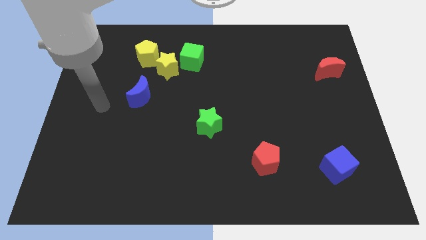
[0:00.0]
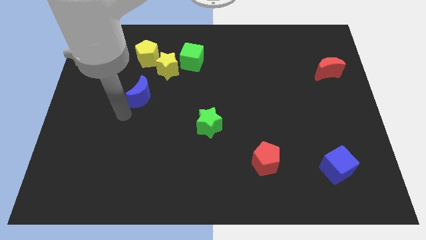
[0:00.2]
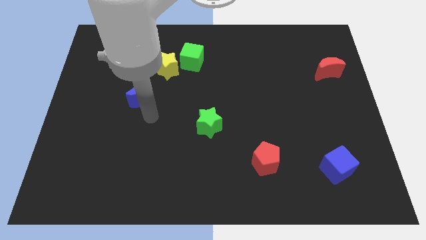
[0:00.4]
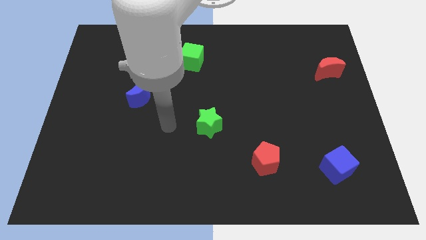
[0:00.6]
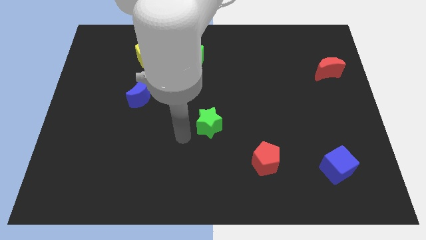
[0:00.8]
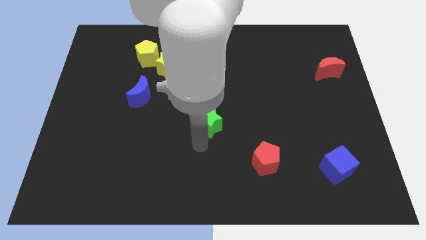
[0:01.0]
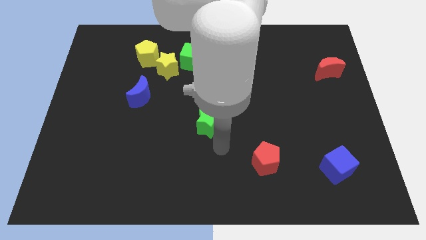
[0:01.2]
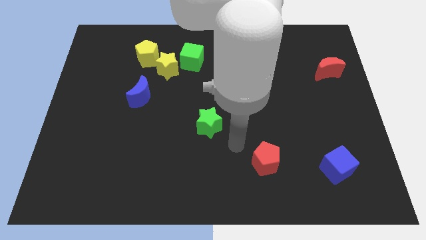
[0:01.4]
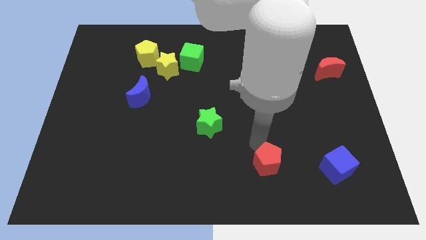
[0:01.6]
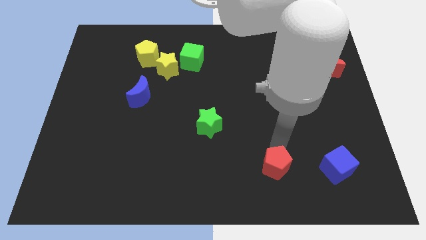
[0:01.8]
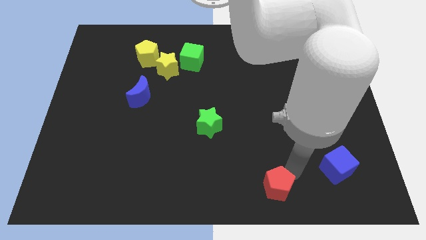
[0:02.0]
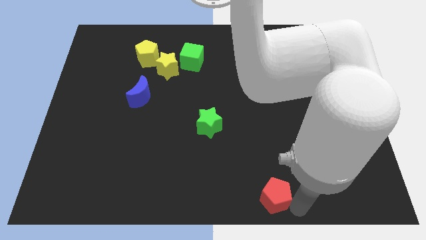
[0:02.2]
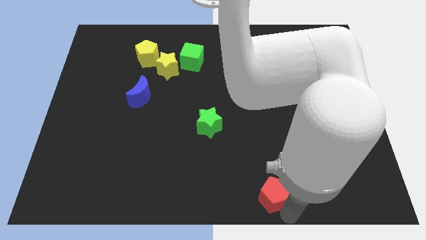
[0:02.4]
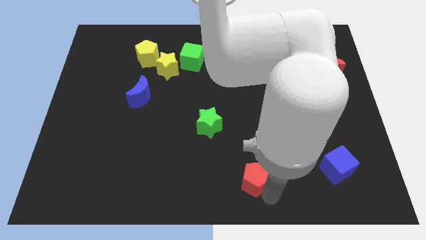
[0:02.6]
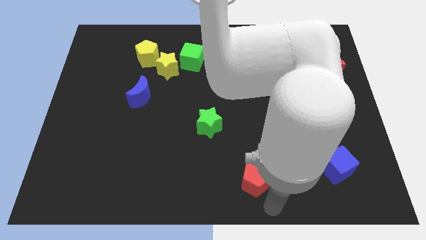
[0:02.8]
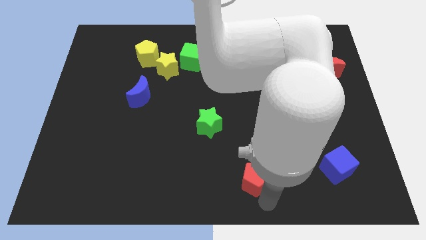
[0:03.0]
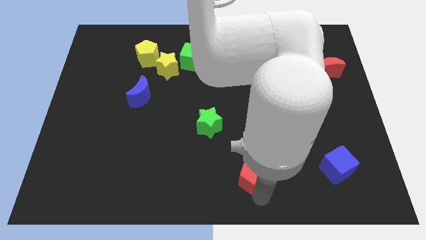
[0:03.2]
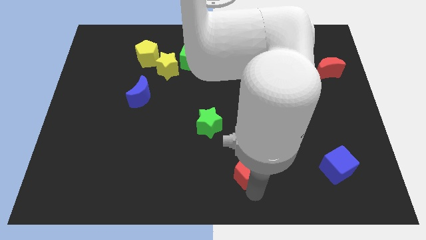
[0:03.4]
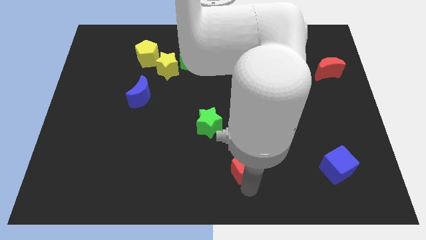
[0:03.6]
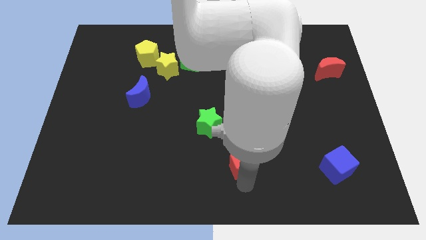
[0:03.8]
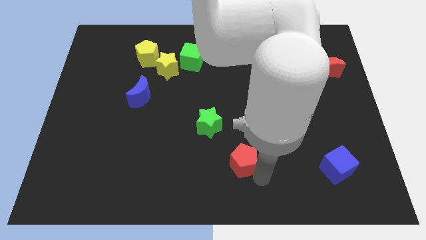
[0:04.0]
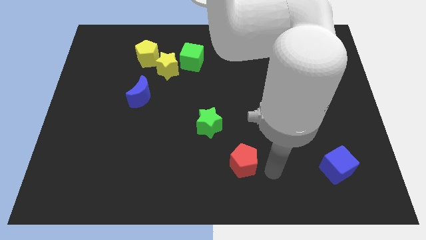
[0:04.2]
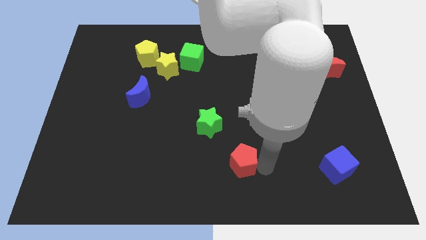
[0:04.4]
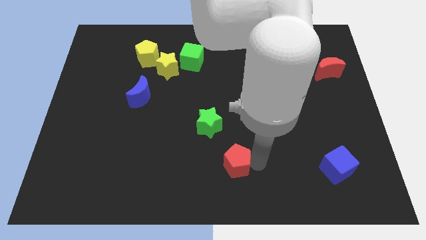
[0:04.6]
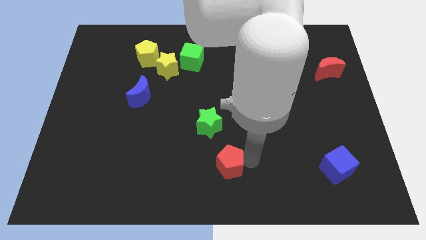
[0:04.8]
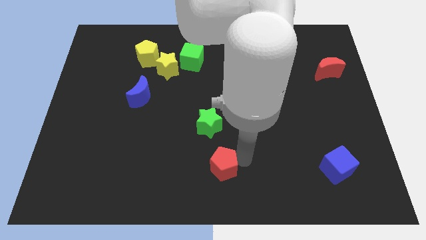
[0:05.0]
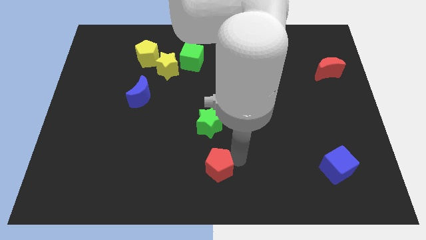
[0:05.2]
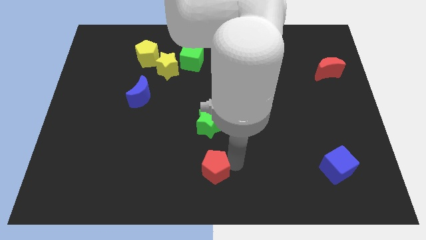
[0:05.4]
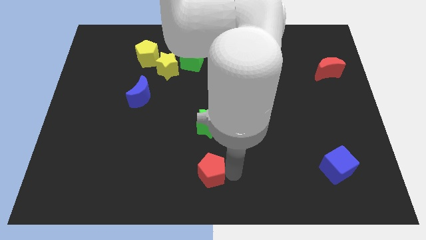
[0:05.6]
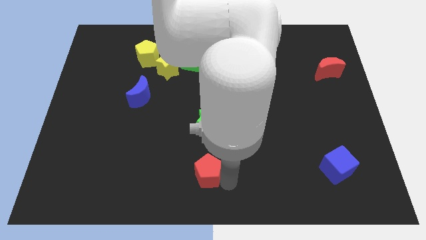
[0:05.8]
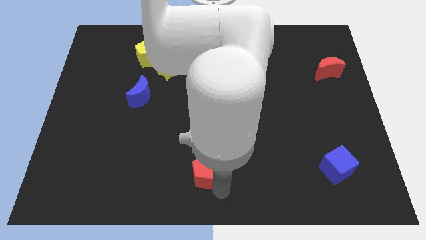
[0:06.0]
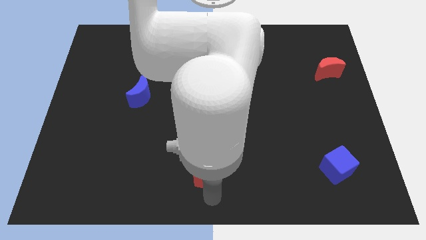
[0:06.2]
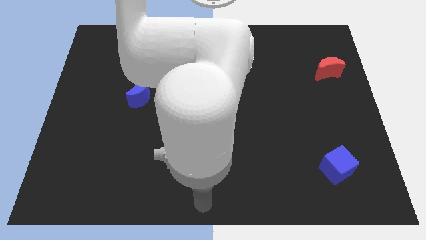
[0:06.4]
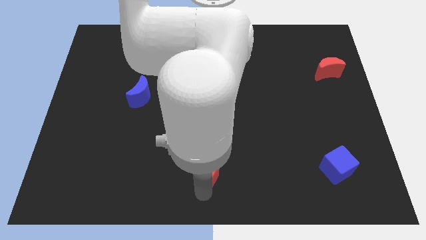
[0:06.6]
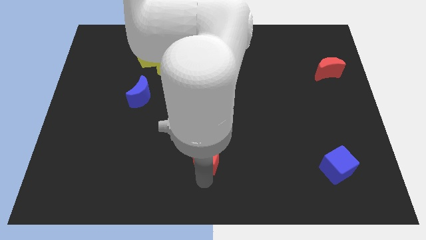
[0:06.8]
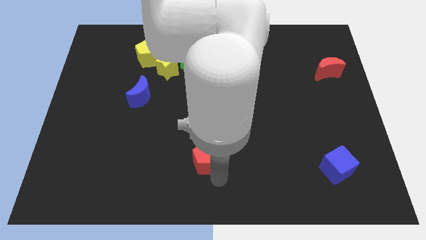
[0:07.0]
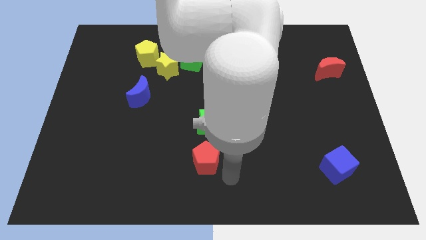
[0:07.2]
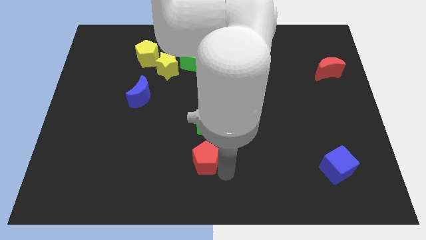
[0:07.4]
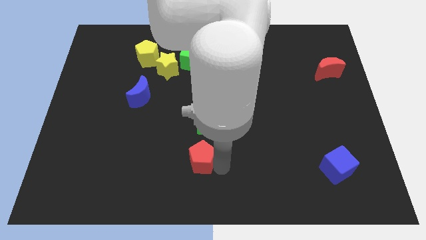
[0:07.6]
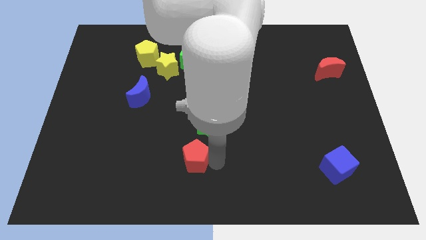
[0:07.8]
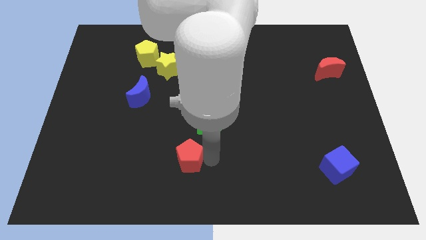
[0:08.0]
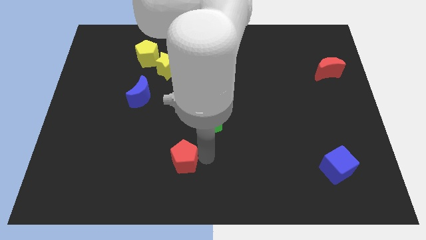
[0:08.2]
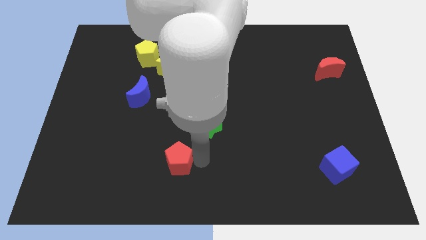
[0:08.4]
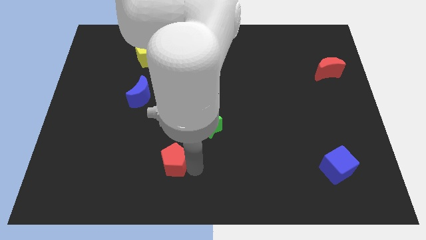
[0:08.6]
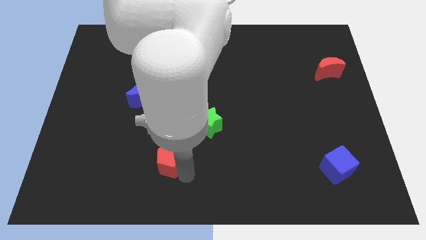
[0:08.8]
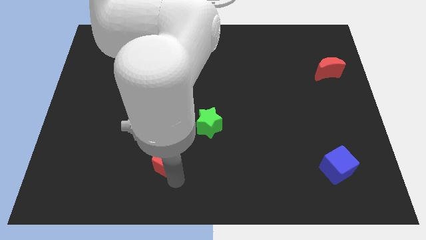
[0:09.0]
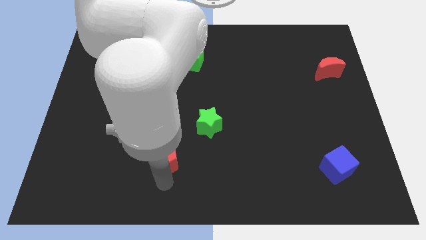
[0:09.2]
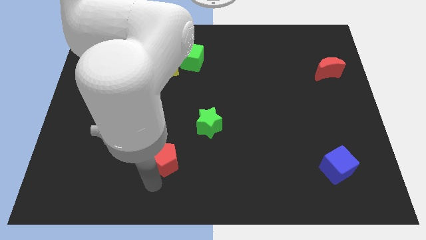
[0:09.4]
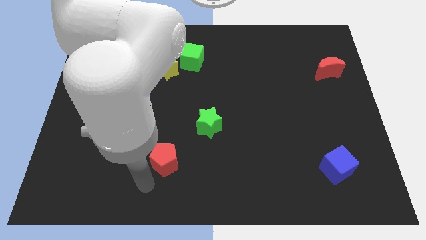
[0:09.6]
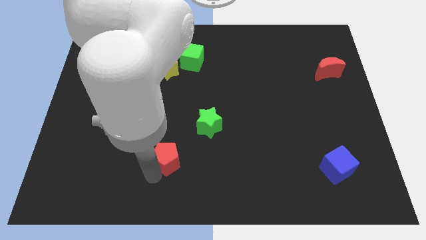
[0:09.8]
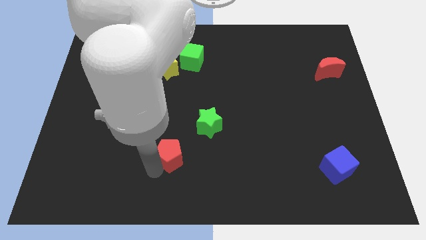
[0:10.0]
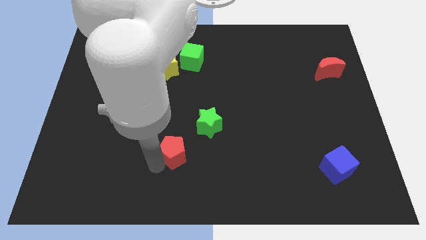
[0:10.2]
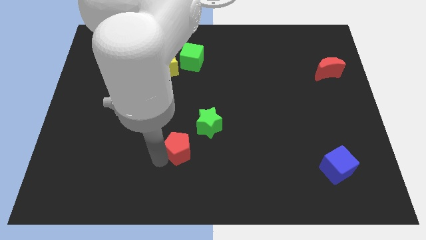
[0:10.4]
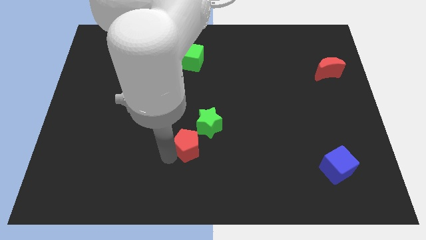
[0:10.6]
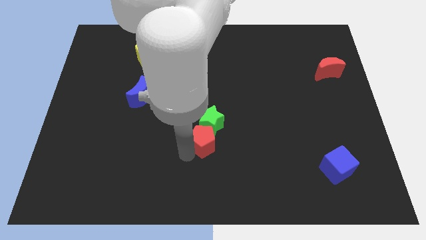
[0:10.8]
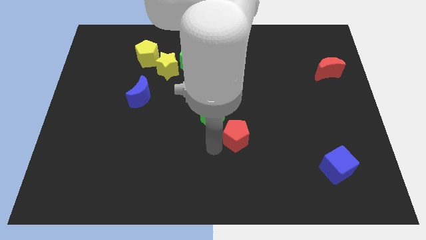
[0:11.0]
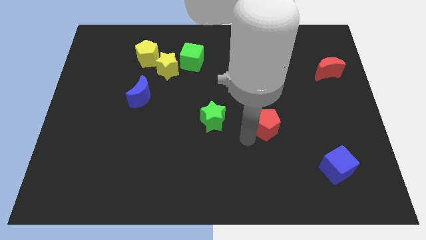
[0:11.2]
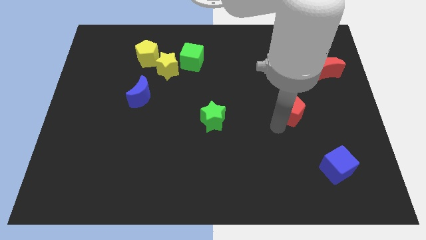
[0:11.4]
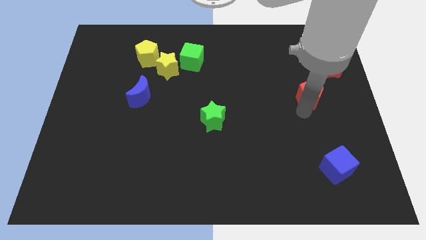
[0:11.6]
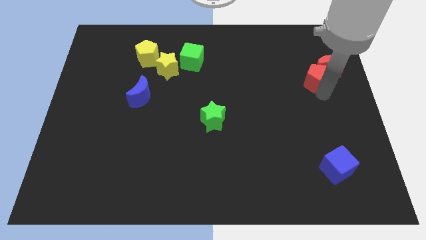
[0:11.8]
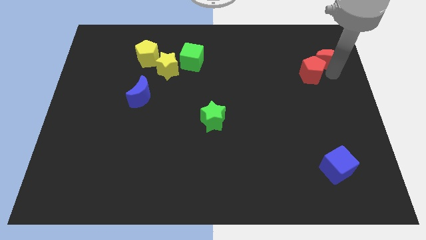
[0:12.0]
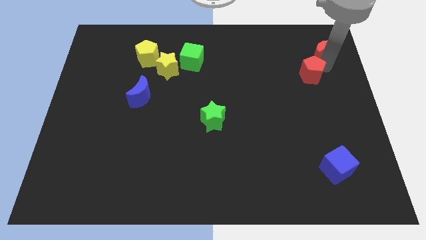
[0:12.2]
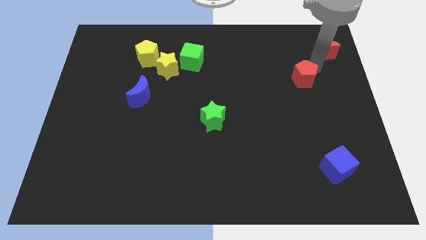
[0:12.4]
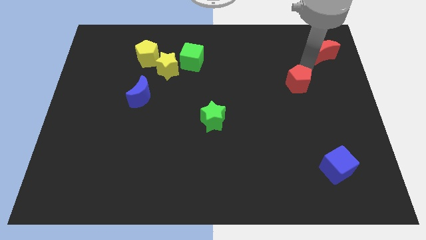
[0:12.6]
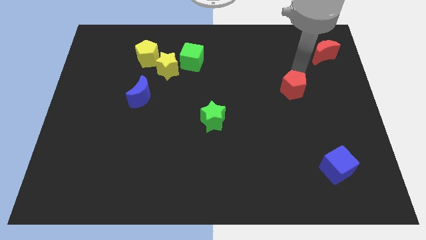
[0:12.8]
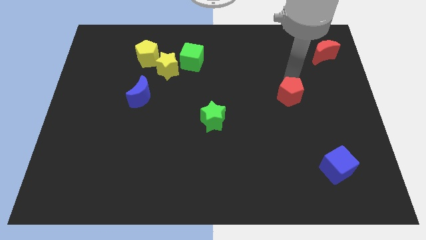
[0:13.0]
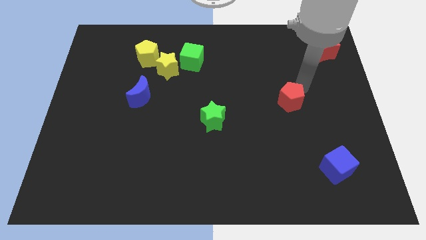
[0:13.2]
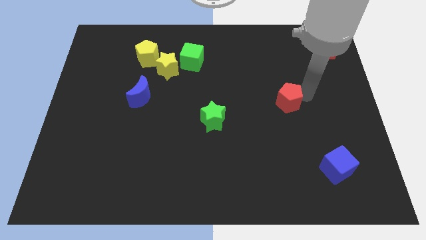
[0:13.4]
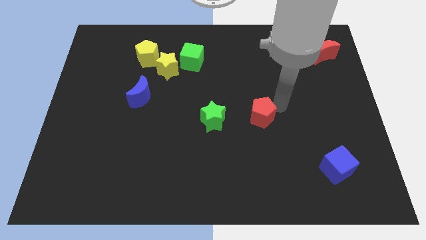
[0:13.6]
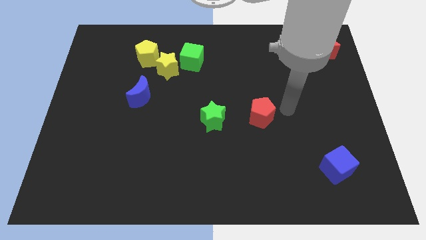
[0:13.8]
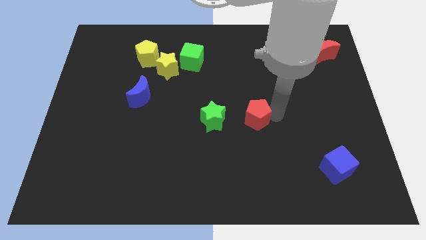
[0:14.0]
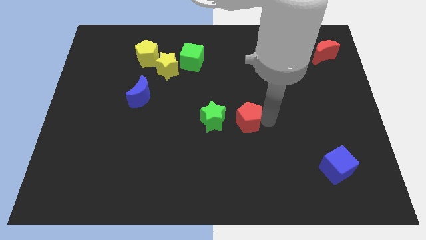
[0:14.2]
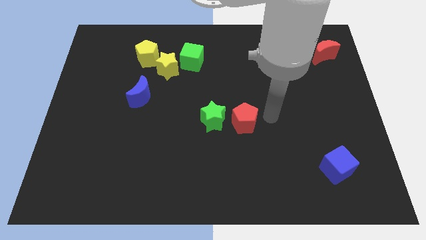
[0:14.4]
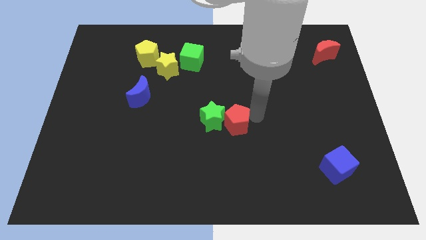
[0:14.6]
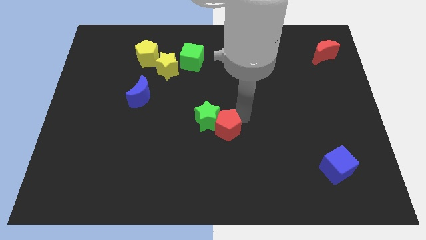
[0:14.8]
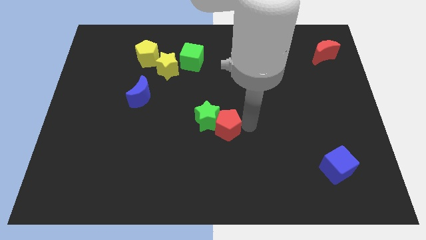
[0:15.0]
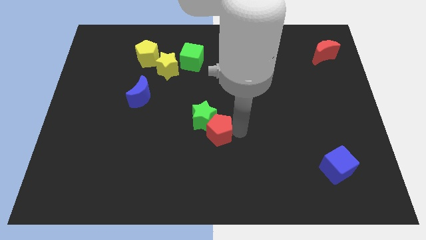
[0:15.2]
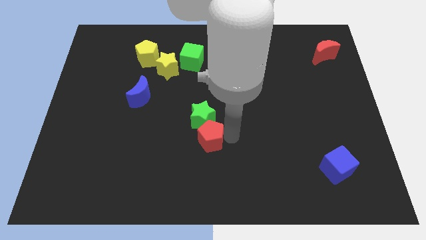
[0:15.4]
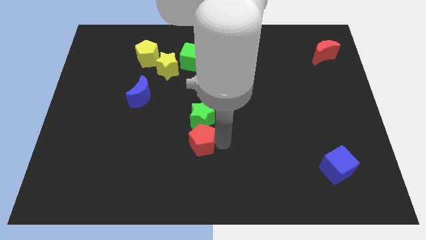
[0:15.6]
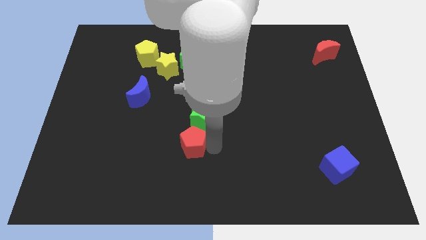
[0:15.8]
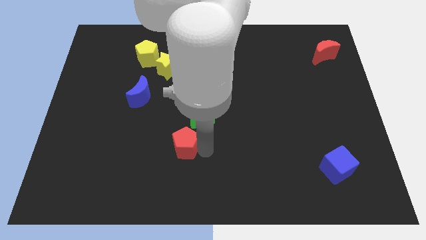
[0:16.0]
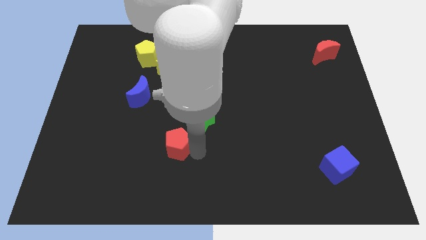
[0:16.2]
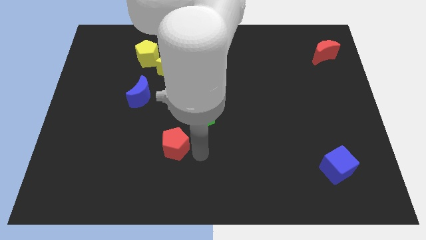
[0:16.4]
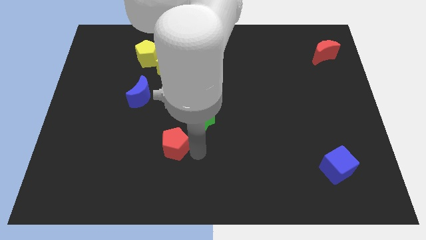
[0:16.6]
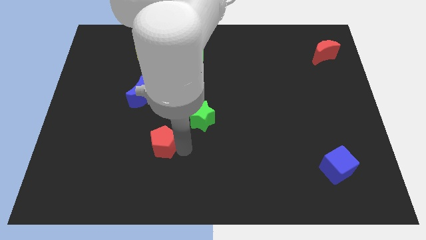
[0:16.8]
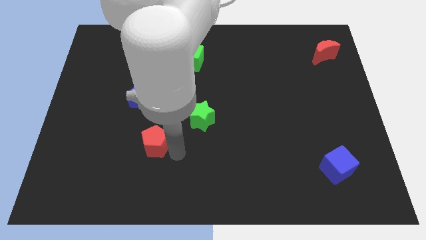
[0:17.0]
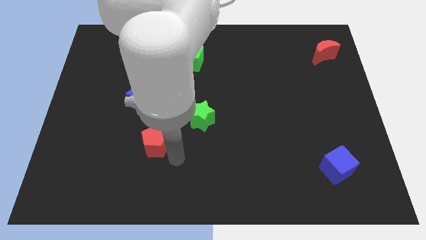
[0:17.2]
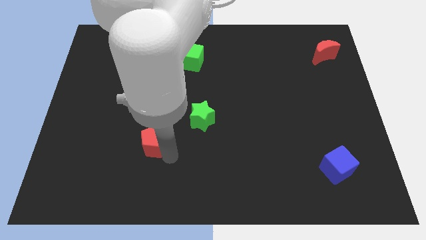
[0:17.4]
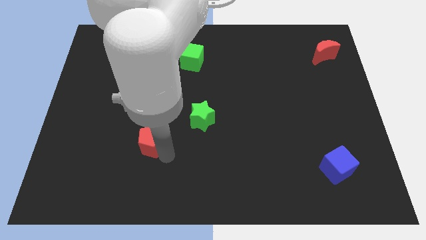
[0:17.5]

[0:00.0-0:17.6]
put the red pentagon to the bottom side of the blue moon
